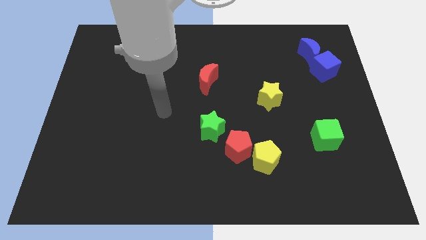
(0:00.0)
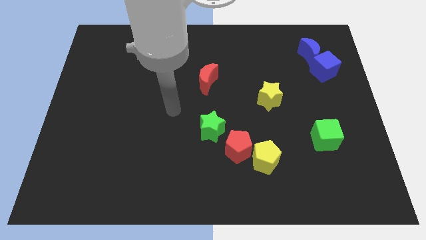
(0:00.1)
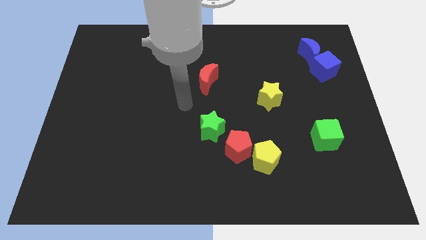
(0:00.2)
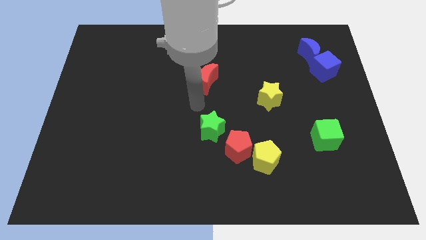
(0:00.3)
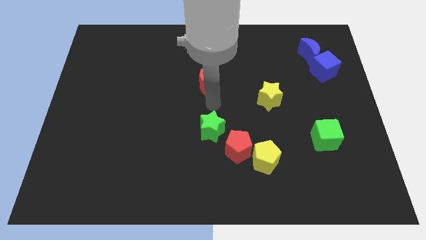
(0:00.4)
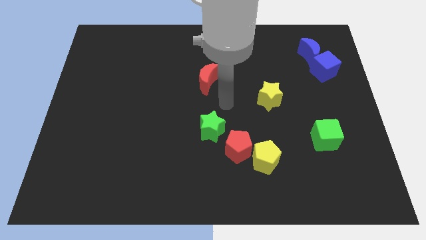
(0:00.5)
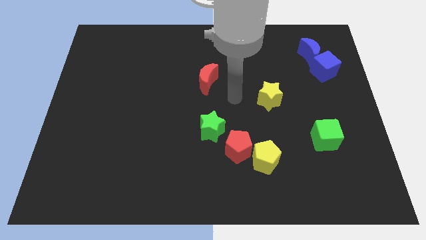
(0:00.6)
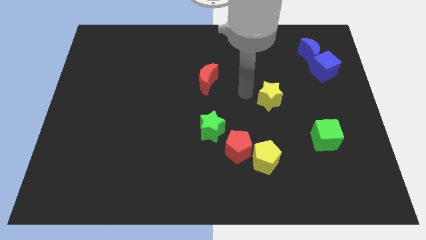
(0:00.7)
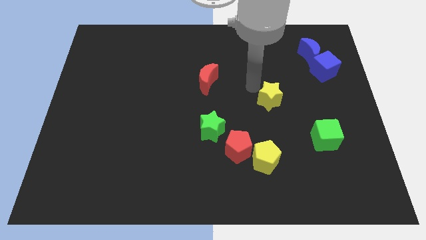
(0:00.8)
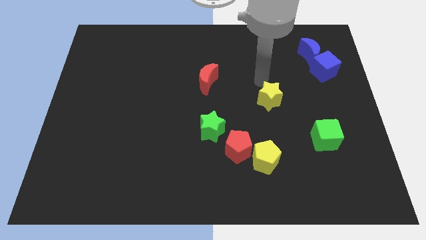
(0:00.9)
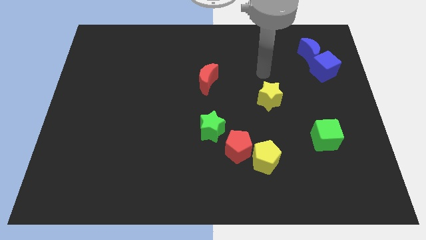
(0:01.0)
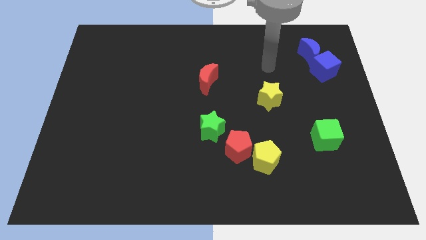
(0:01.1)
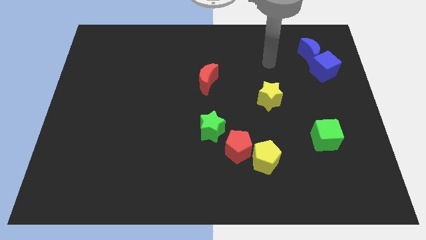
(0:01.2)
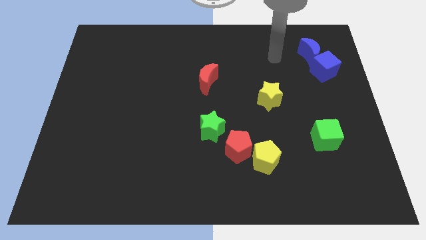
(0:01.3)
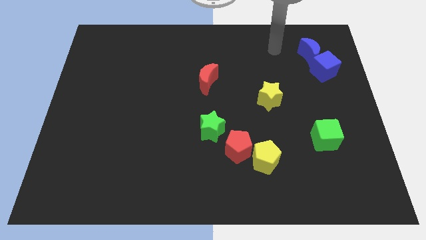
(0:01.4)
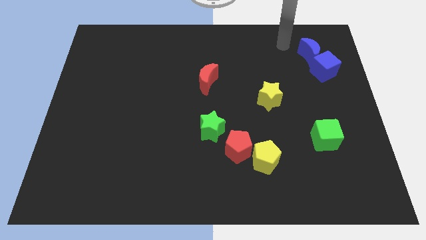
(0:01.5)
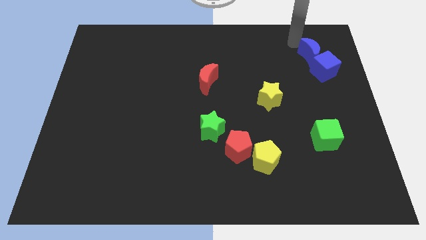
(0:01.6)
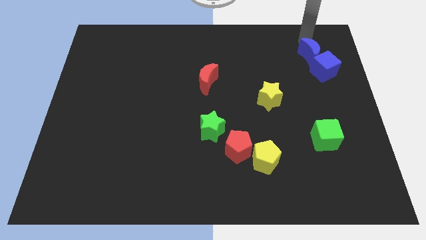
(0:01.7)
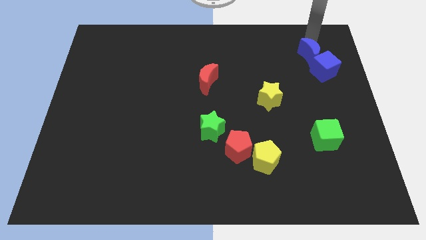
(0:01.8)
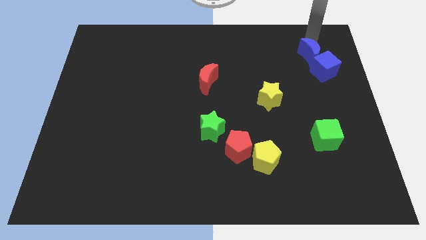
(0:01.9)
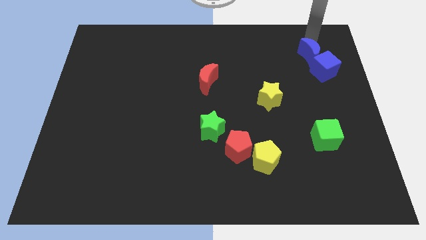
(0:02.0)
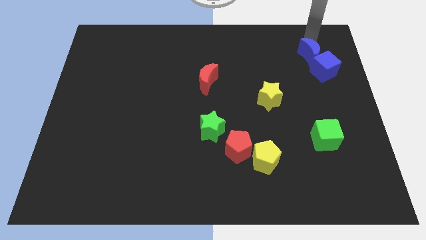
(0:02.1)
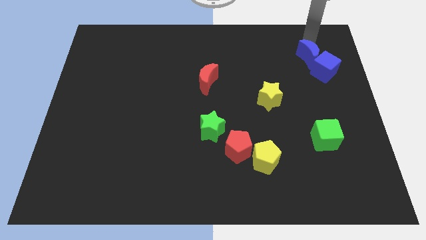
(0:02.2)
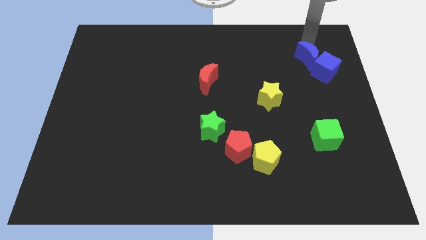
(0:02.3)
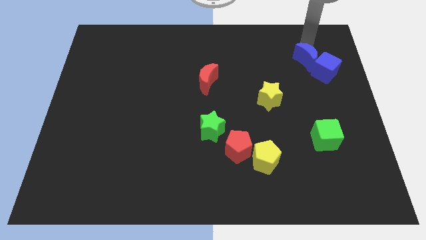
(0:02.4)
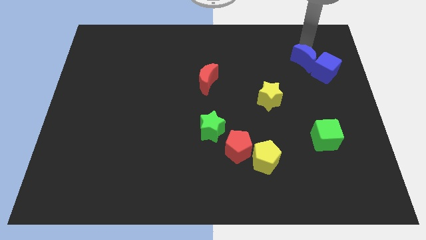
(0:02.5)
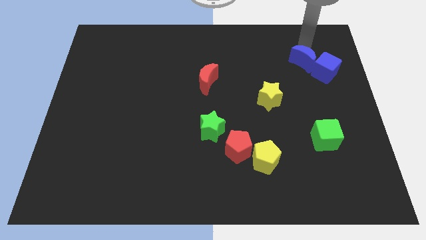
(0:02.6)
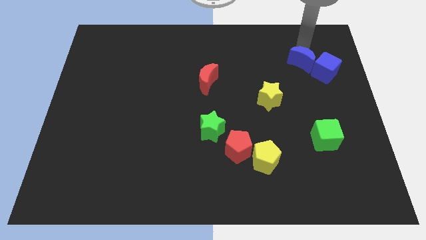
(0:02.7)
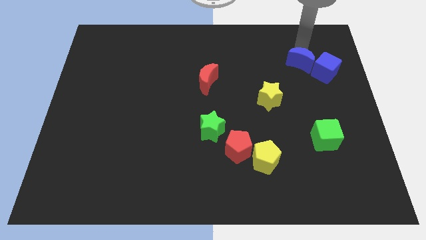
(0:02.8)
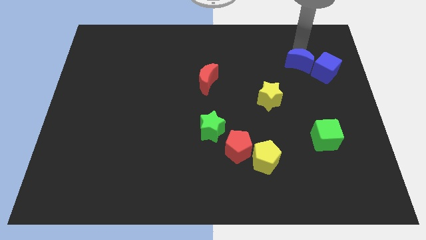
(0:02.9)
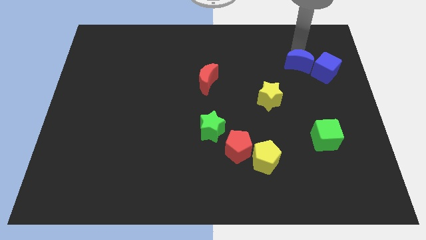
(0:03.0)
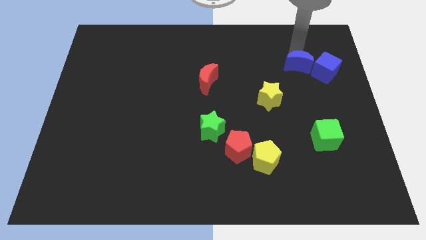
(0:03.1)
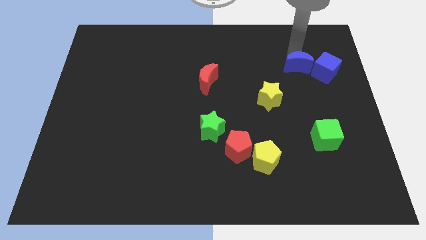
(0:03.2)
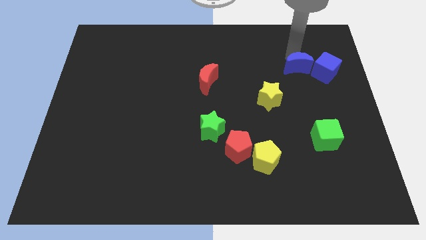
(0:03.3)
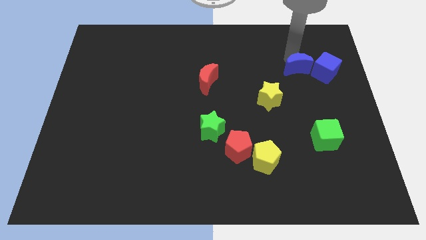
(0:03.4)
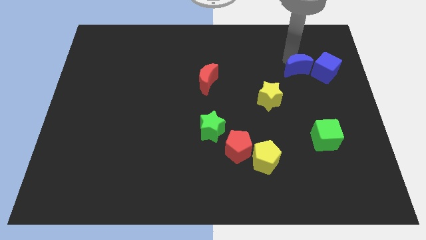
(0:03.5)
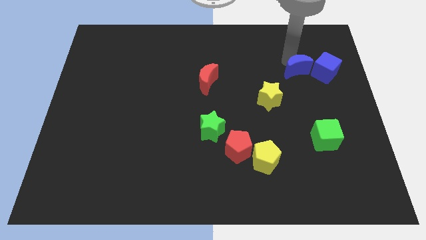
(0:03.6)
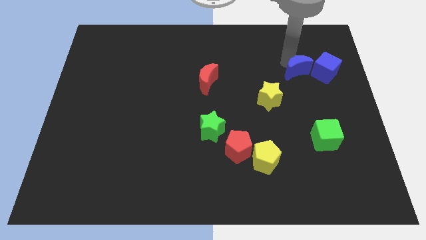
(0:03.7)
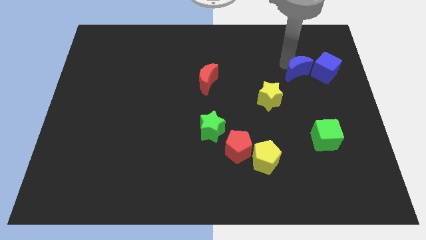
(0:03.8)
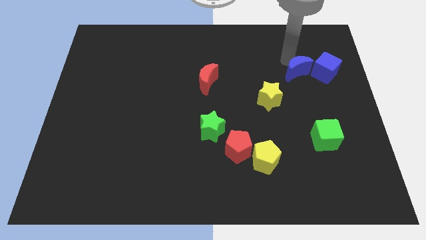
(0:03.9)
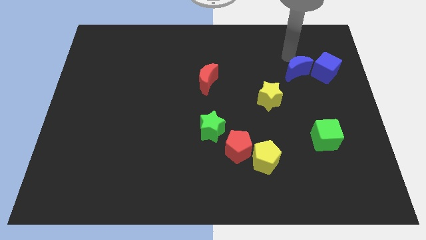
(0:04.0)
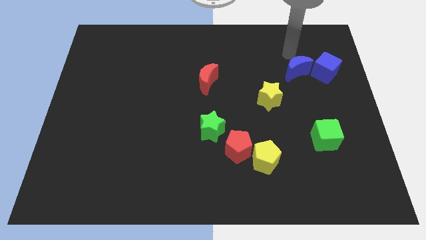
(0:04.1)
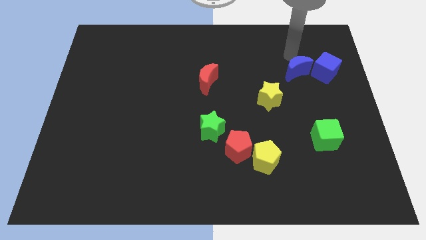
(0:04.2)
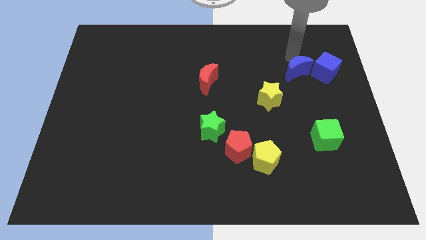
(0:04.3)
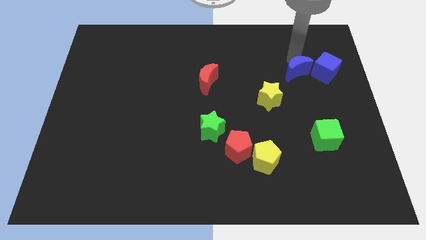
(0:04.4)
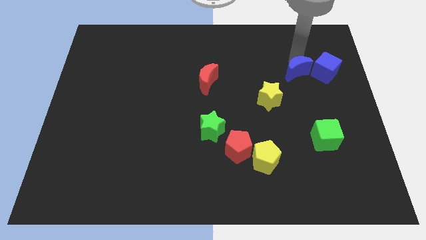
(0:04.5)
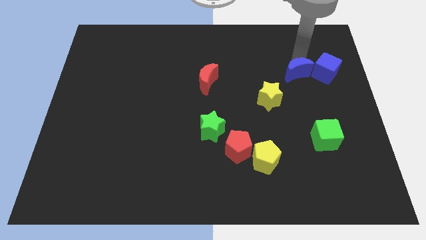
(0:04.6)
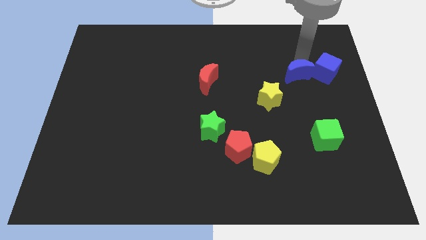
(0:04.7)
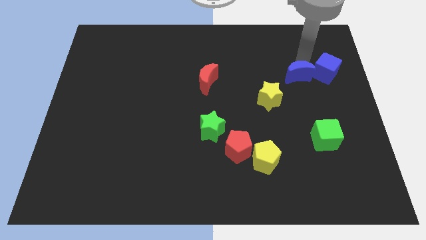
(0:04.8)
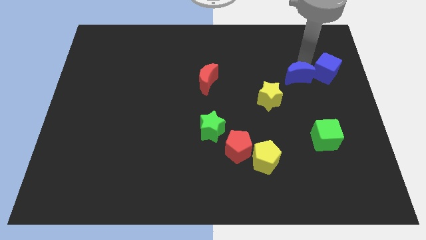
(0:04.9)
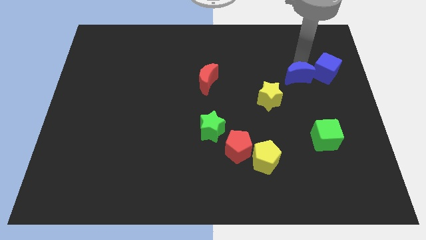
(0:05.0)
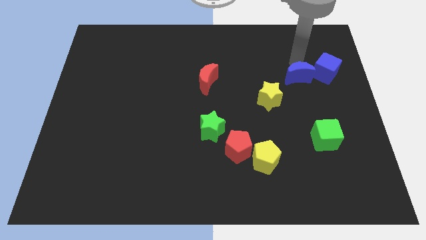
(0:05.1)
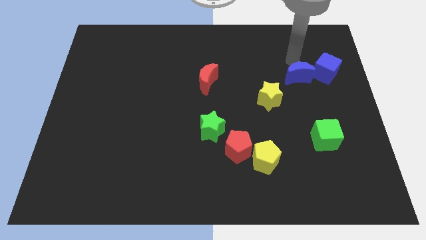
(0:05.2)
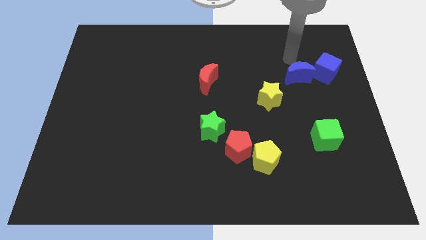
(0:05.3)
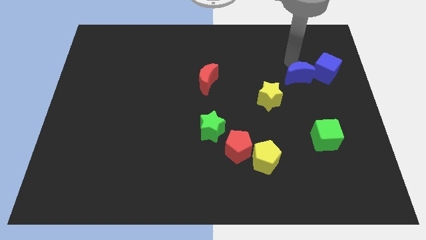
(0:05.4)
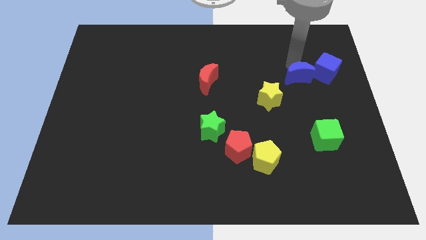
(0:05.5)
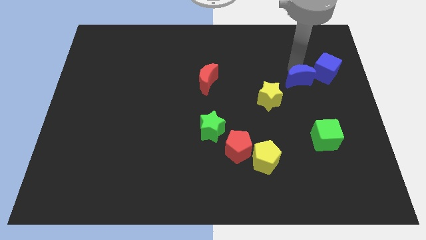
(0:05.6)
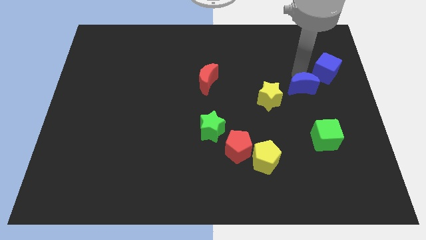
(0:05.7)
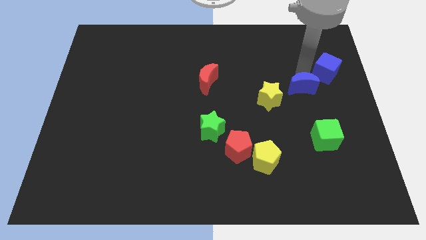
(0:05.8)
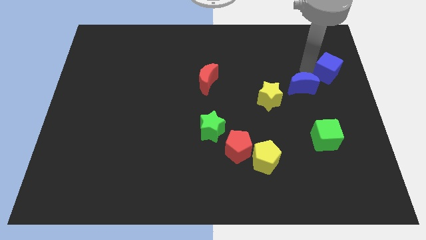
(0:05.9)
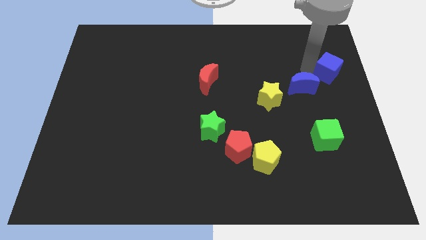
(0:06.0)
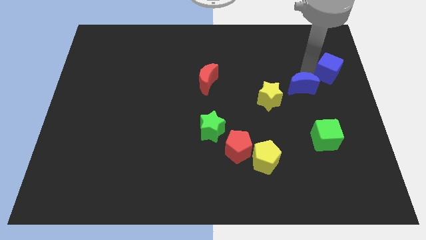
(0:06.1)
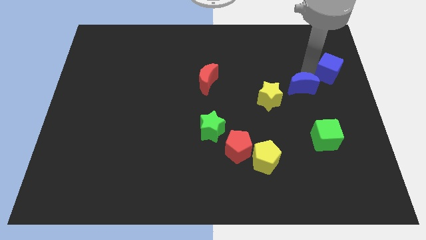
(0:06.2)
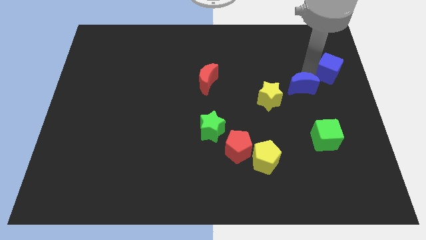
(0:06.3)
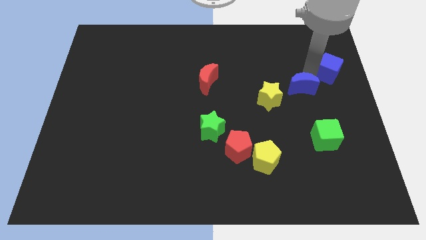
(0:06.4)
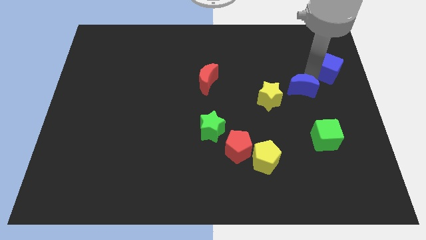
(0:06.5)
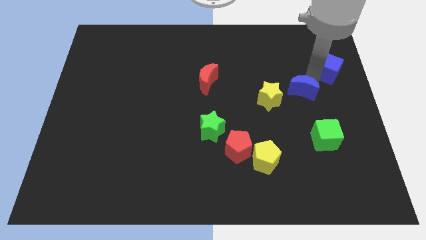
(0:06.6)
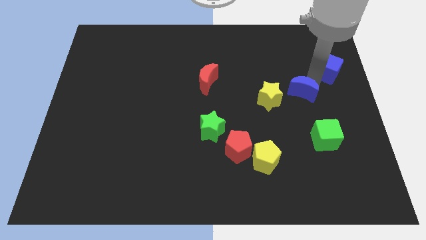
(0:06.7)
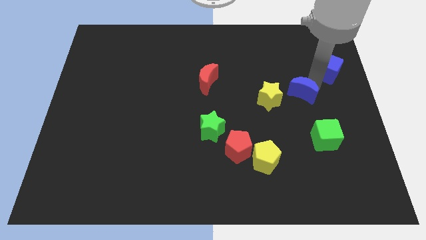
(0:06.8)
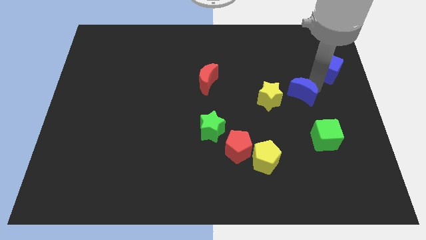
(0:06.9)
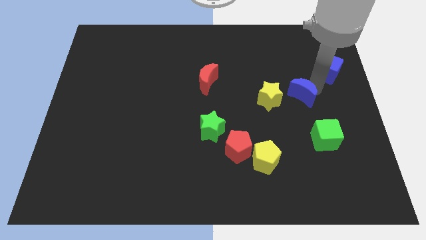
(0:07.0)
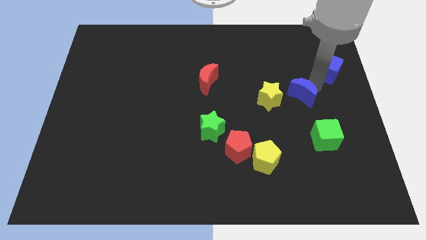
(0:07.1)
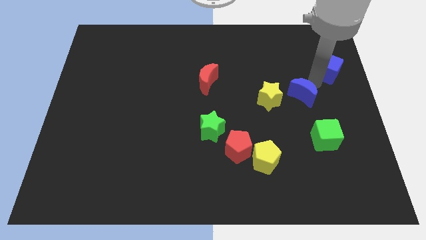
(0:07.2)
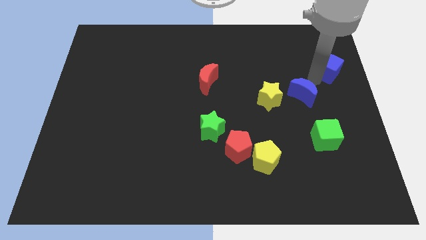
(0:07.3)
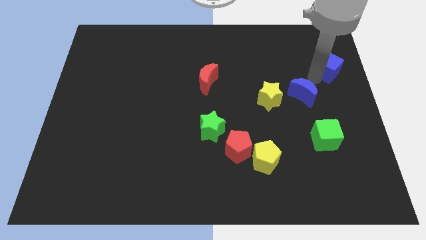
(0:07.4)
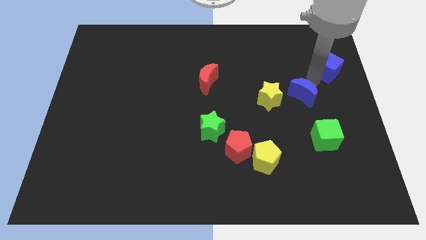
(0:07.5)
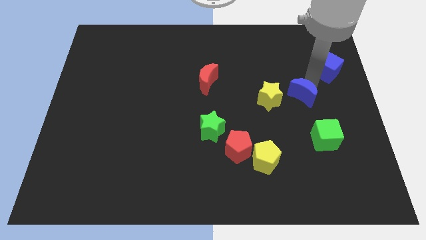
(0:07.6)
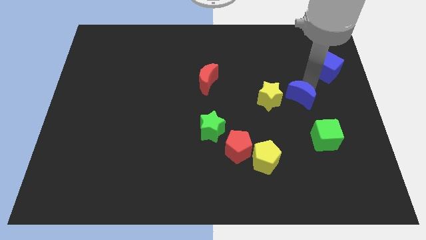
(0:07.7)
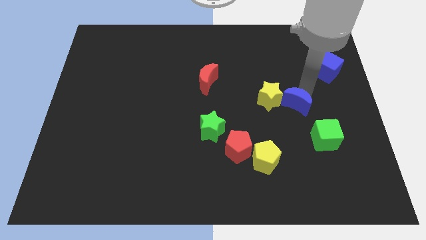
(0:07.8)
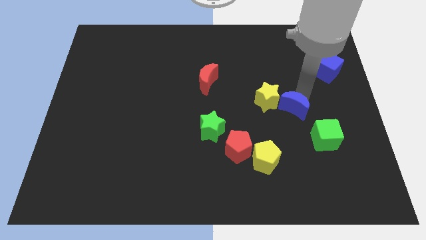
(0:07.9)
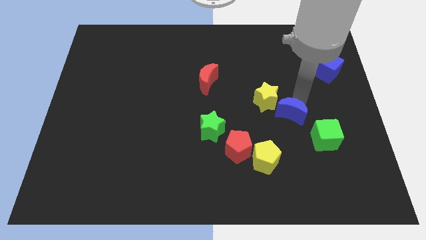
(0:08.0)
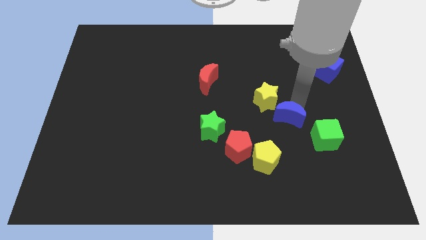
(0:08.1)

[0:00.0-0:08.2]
move the blue moon to the bottom of the yellow star
